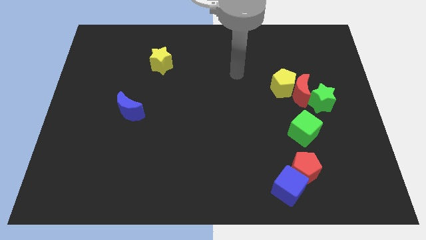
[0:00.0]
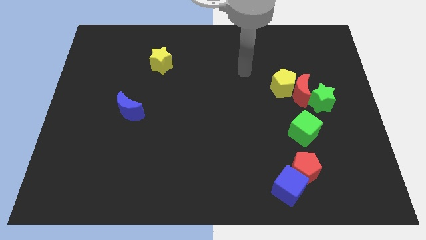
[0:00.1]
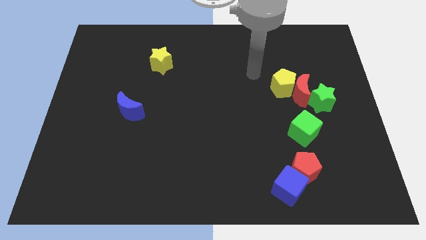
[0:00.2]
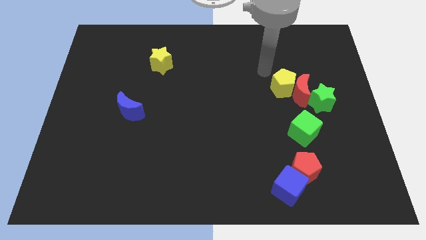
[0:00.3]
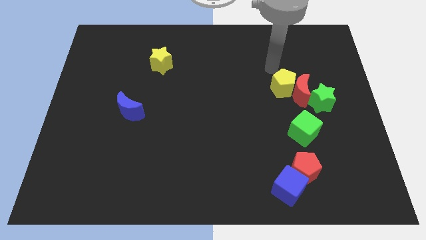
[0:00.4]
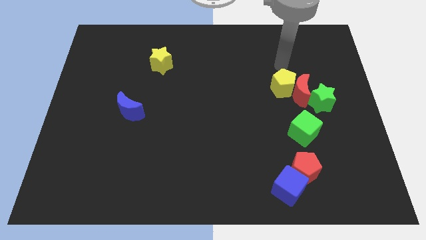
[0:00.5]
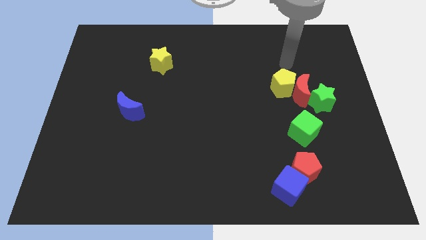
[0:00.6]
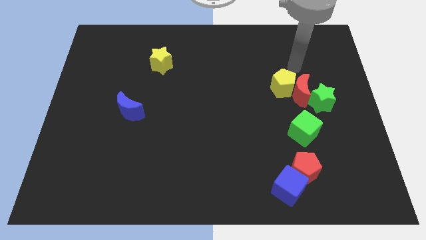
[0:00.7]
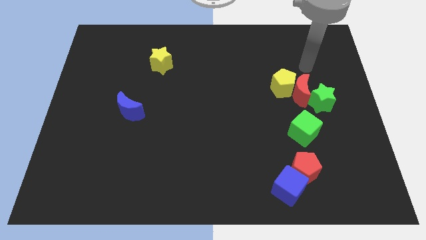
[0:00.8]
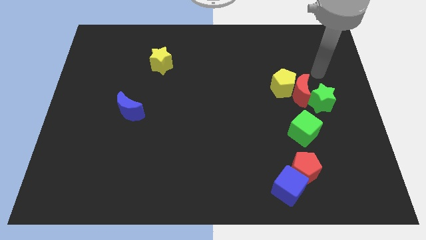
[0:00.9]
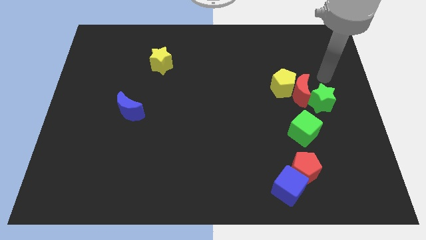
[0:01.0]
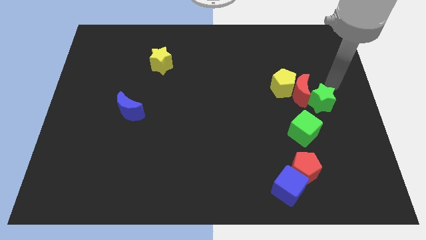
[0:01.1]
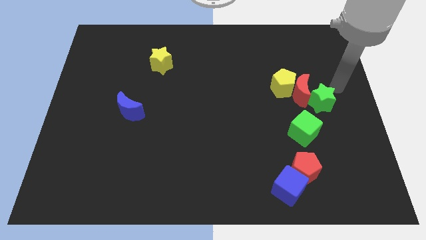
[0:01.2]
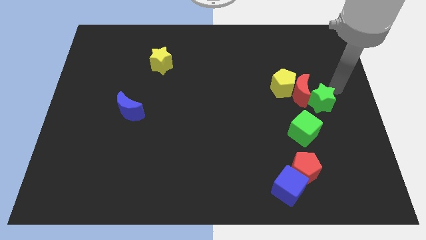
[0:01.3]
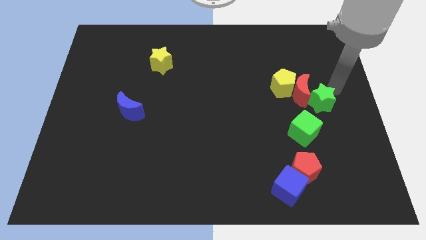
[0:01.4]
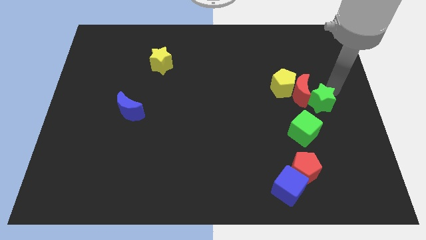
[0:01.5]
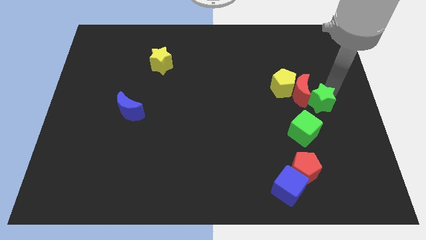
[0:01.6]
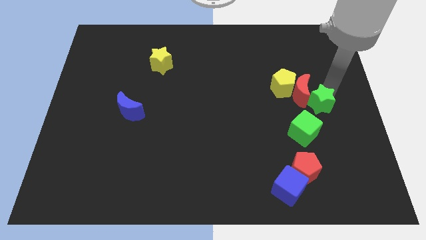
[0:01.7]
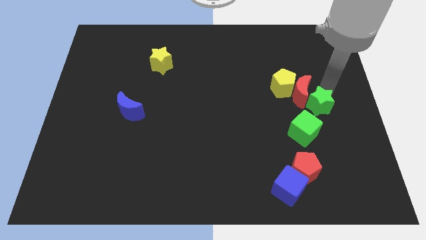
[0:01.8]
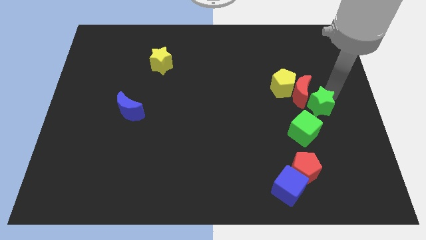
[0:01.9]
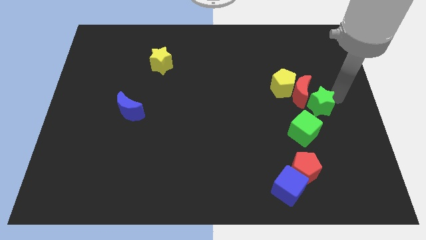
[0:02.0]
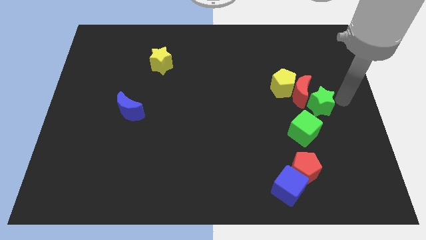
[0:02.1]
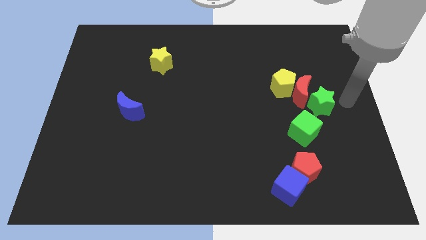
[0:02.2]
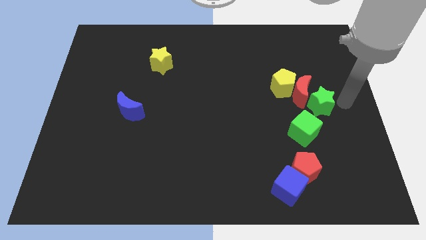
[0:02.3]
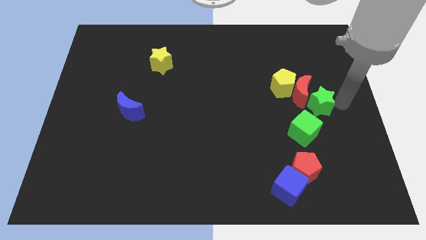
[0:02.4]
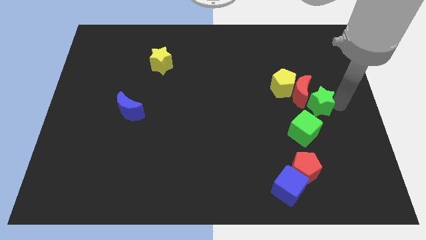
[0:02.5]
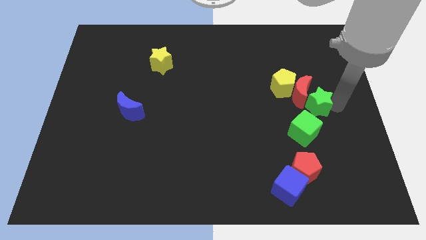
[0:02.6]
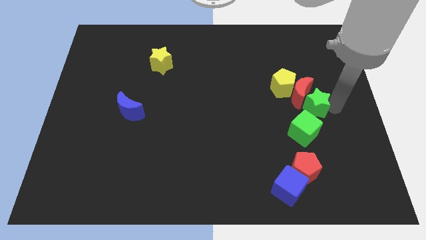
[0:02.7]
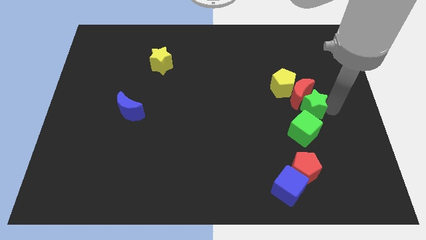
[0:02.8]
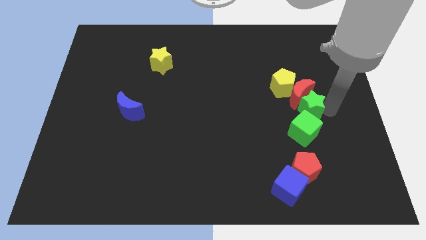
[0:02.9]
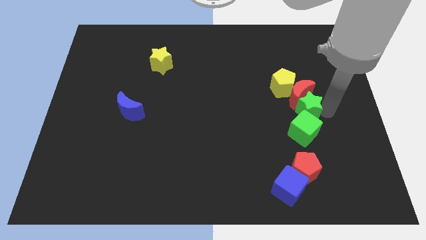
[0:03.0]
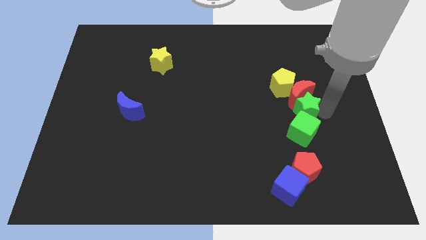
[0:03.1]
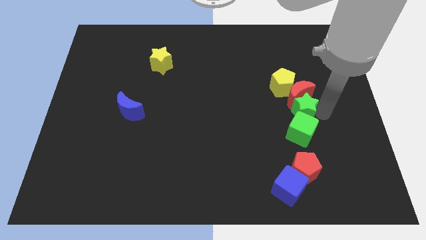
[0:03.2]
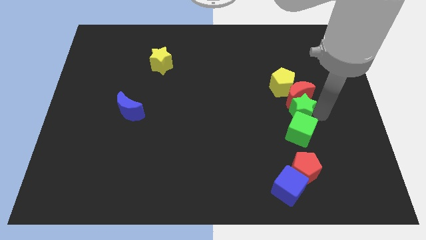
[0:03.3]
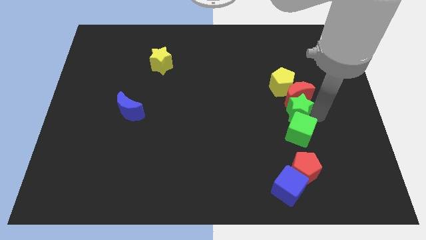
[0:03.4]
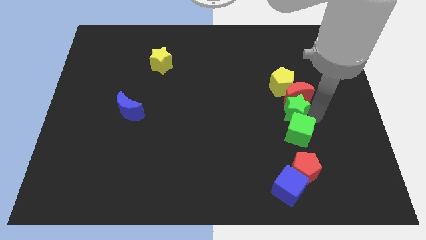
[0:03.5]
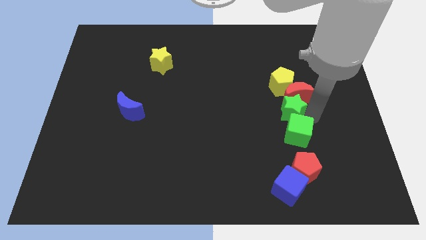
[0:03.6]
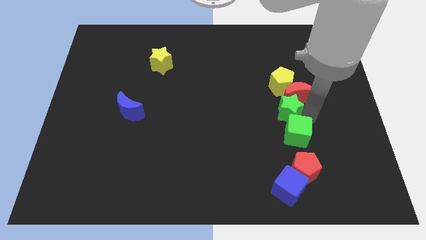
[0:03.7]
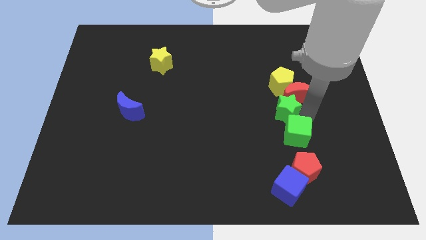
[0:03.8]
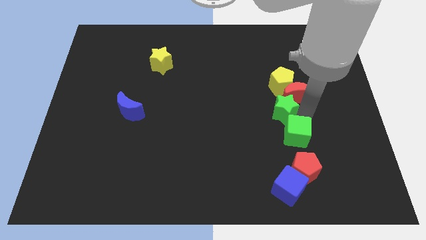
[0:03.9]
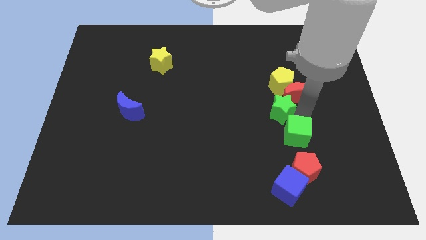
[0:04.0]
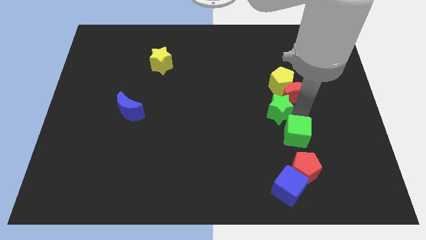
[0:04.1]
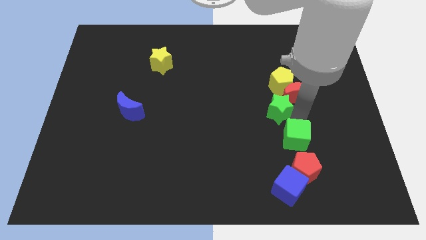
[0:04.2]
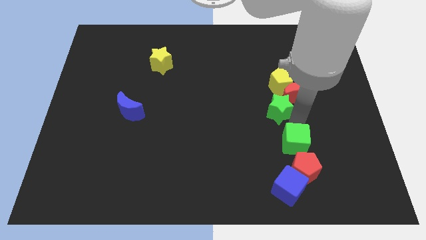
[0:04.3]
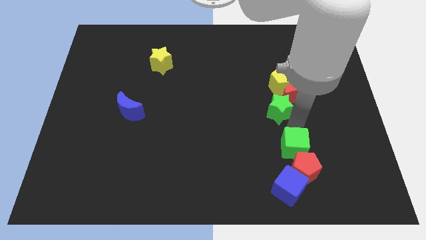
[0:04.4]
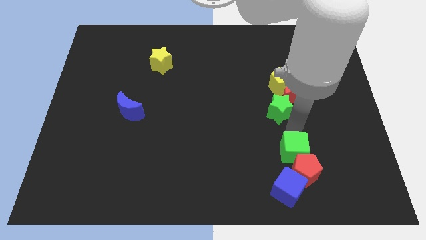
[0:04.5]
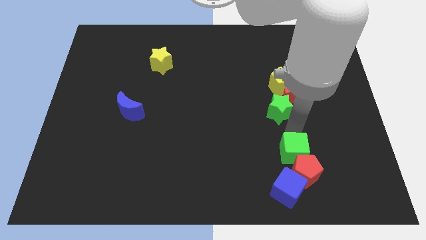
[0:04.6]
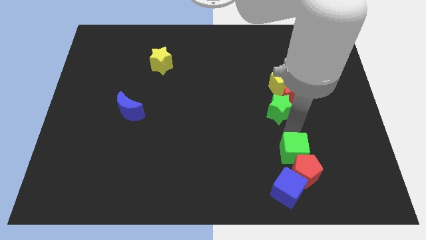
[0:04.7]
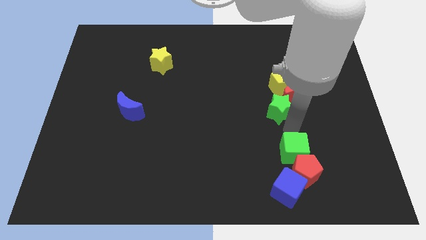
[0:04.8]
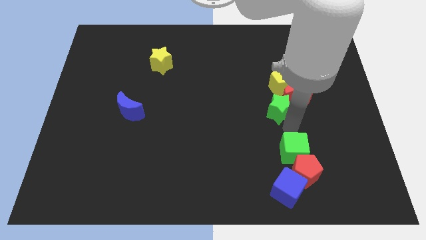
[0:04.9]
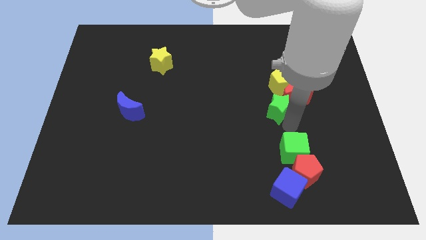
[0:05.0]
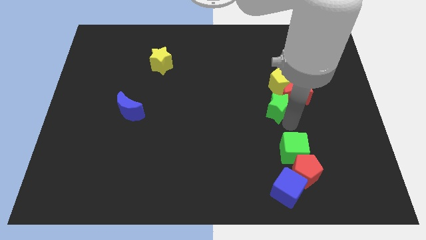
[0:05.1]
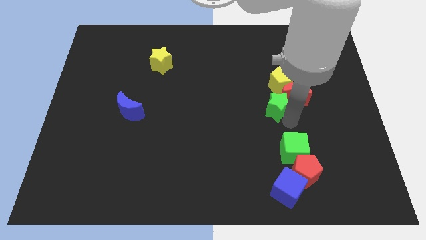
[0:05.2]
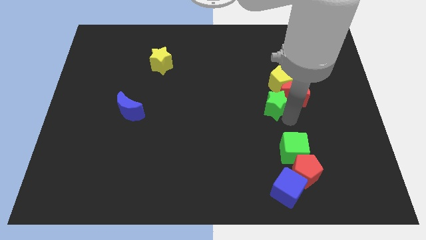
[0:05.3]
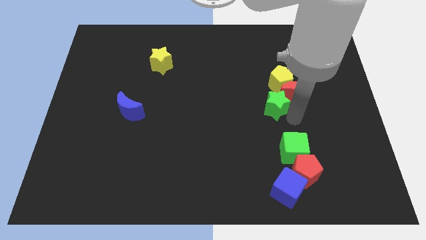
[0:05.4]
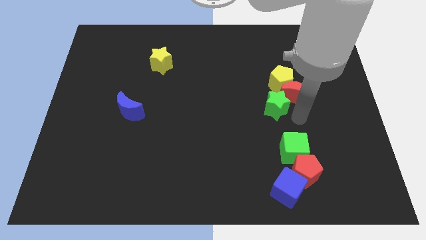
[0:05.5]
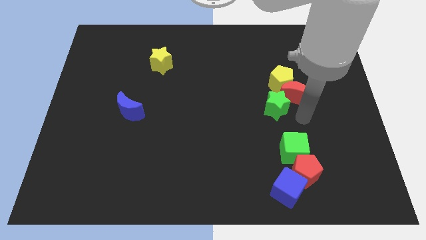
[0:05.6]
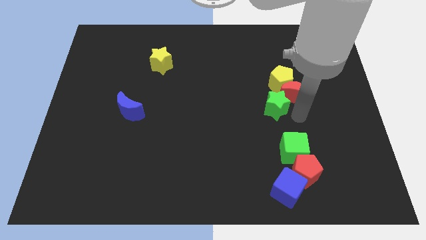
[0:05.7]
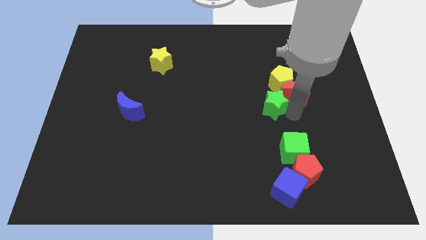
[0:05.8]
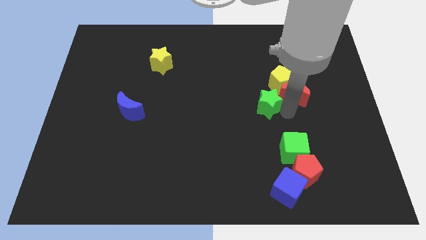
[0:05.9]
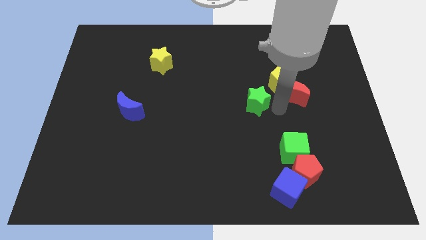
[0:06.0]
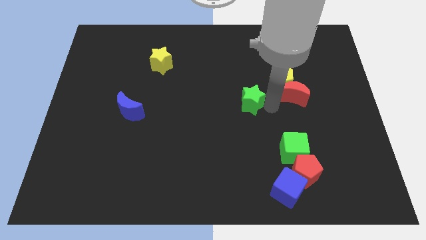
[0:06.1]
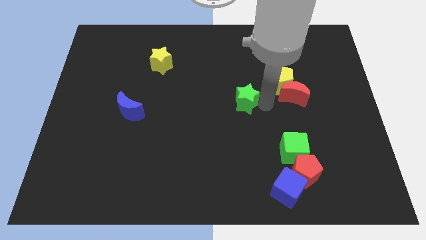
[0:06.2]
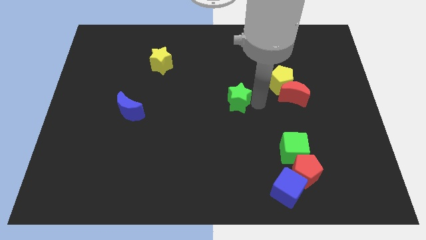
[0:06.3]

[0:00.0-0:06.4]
push the green star left

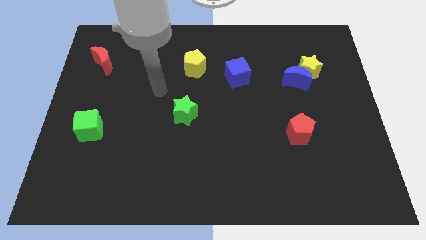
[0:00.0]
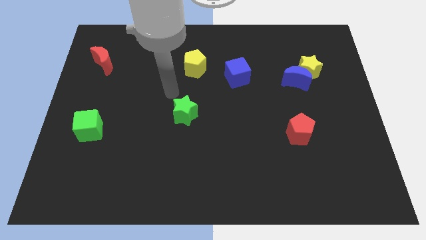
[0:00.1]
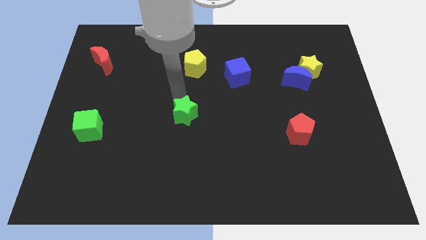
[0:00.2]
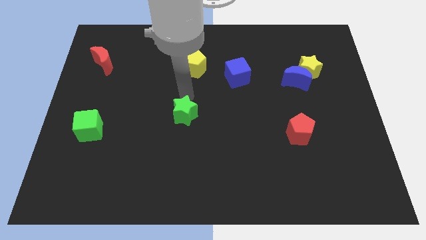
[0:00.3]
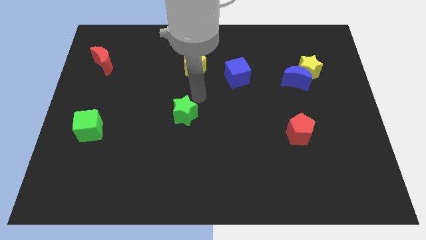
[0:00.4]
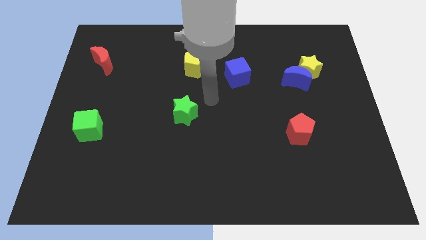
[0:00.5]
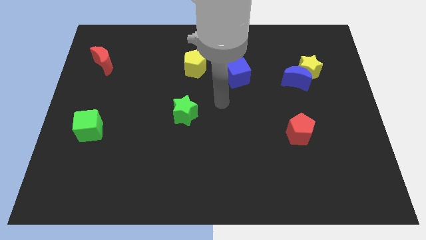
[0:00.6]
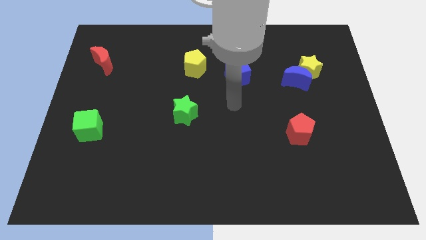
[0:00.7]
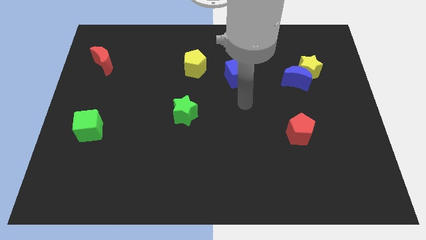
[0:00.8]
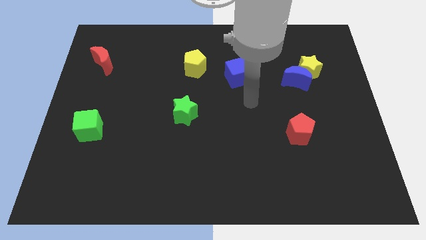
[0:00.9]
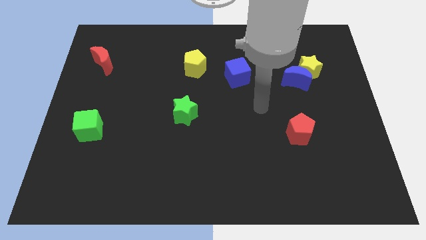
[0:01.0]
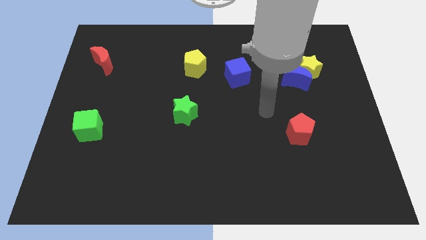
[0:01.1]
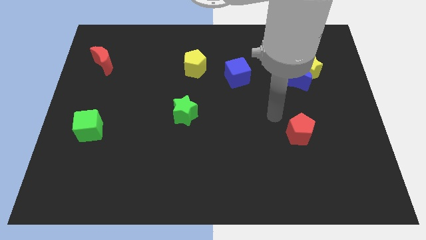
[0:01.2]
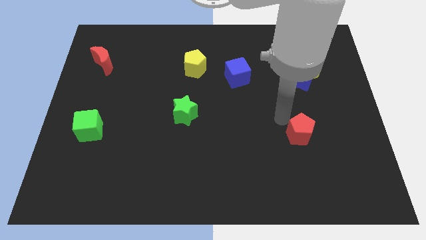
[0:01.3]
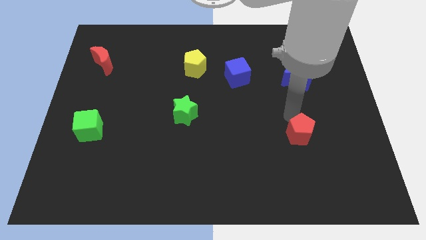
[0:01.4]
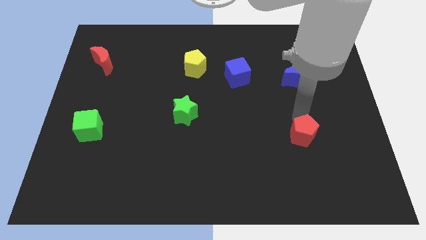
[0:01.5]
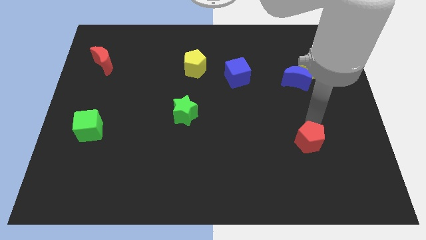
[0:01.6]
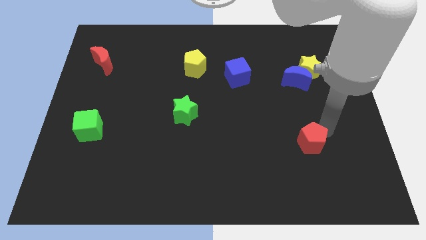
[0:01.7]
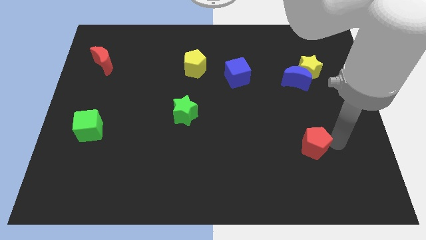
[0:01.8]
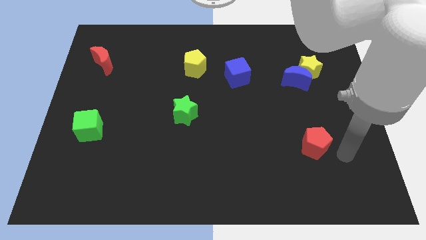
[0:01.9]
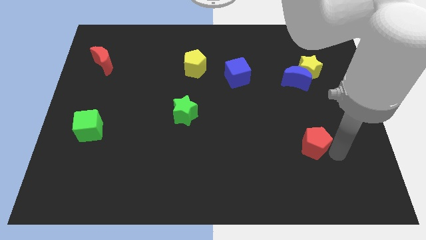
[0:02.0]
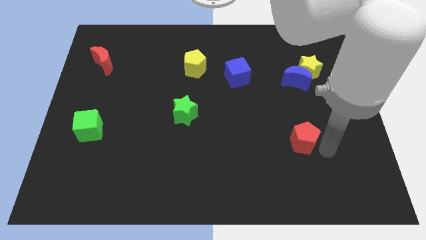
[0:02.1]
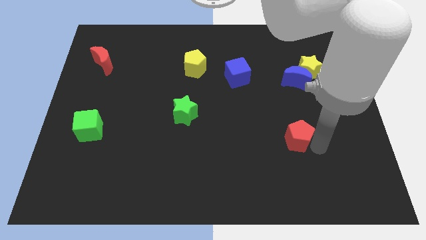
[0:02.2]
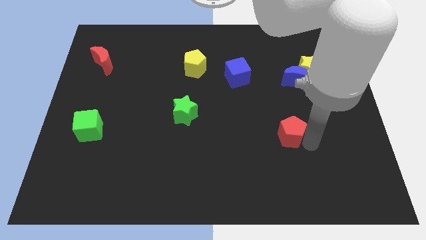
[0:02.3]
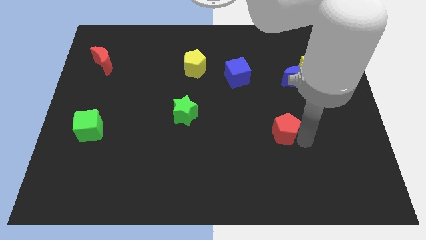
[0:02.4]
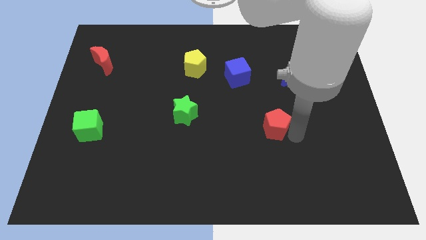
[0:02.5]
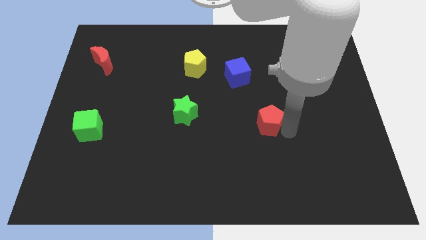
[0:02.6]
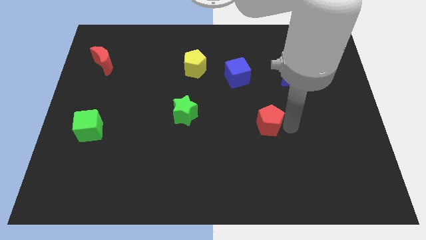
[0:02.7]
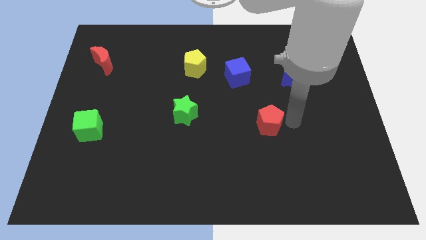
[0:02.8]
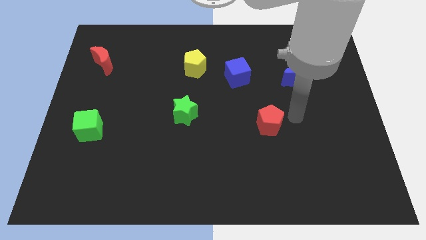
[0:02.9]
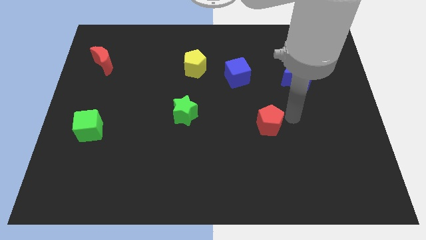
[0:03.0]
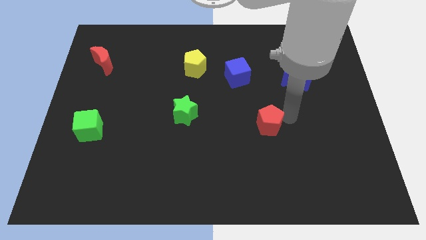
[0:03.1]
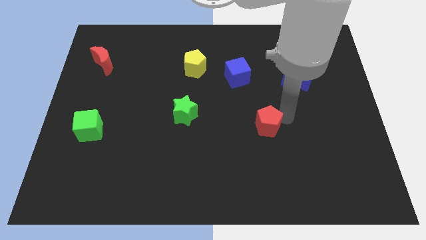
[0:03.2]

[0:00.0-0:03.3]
slide the red pentagon a bit to the left
